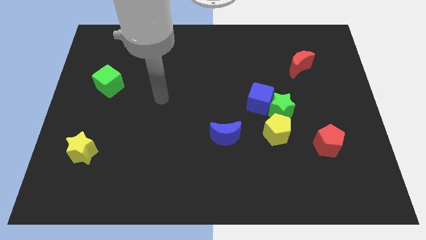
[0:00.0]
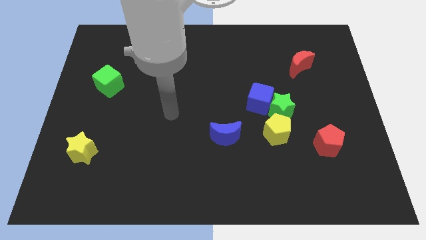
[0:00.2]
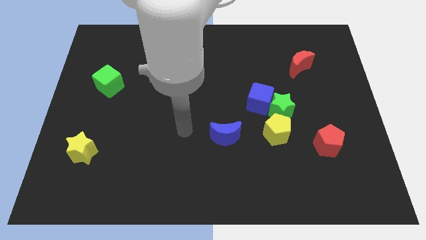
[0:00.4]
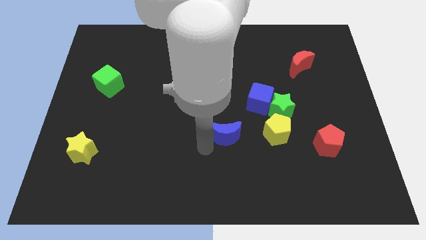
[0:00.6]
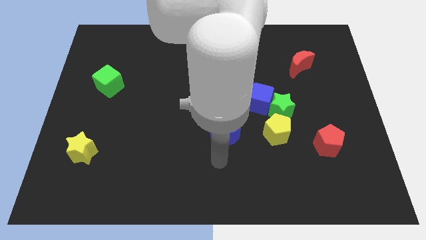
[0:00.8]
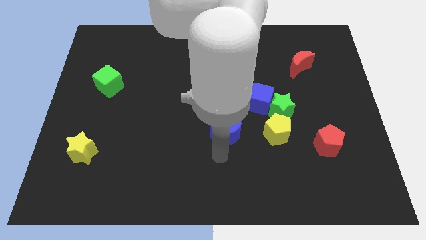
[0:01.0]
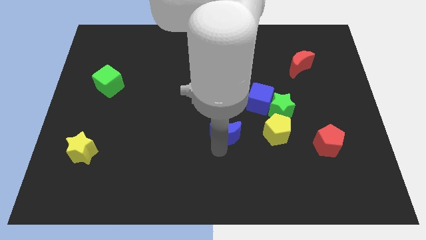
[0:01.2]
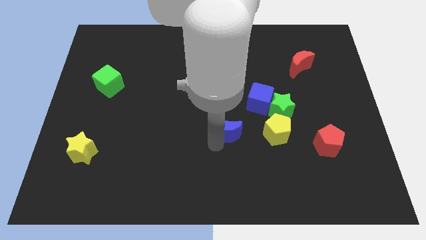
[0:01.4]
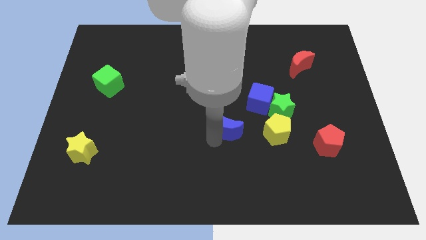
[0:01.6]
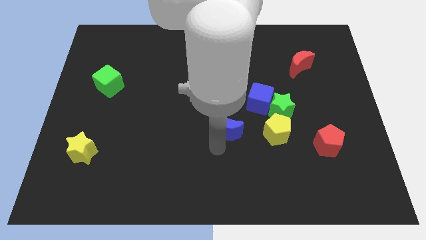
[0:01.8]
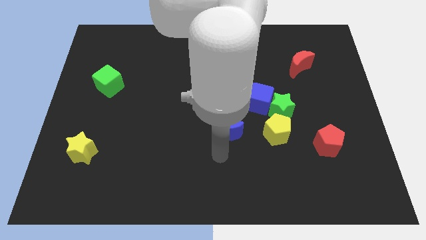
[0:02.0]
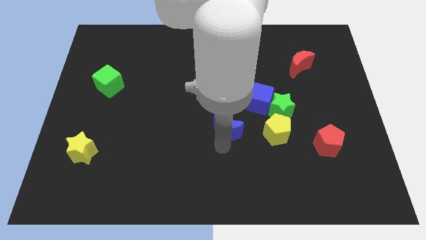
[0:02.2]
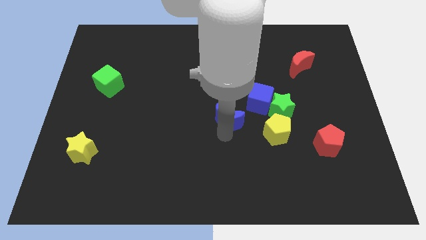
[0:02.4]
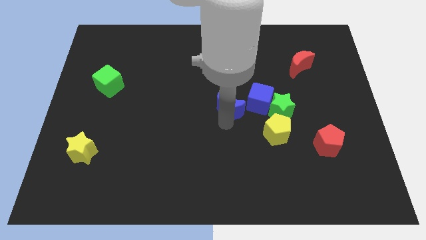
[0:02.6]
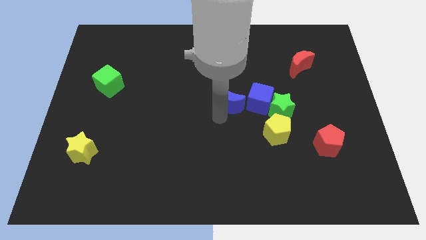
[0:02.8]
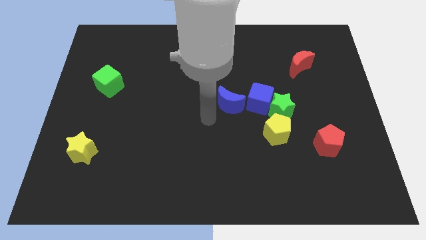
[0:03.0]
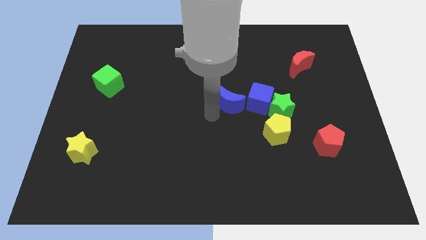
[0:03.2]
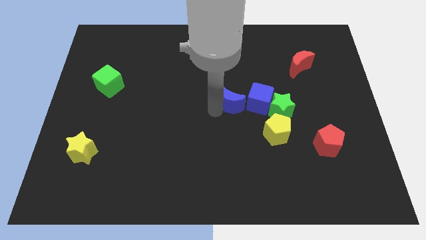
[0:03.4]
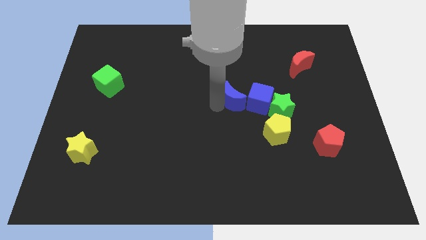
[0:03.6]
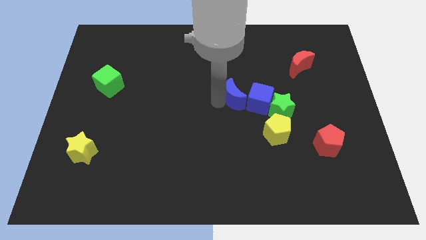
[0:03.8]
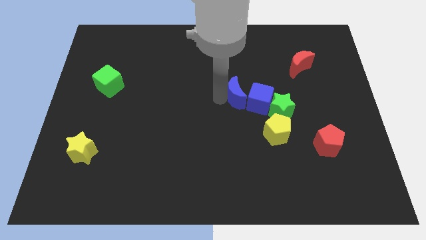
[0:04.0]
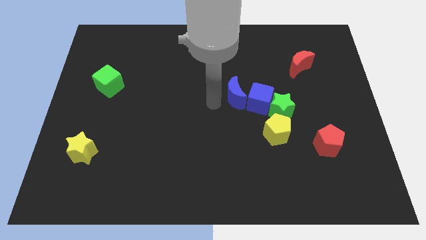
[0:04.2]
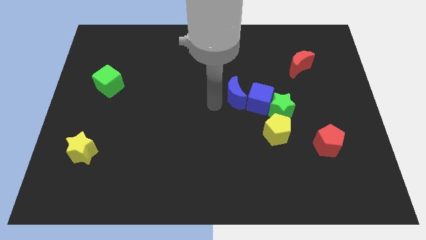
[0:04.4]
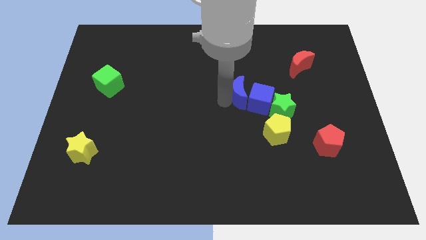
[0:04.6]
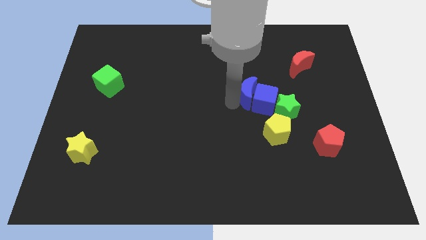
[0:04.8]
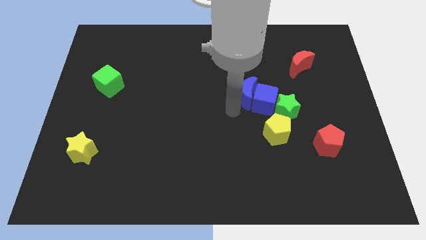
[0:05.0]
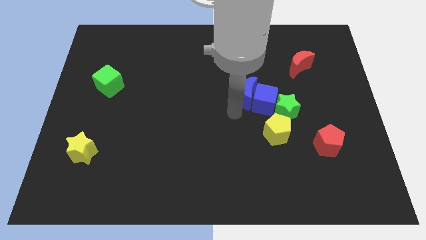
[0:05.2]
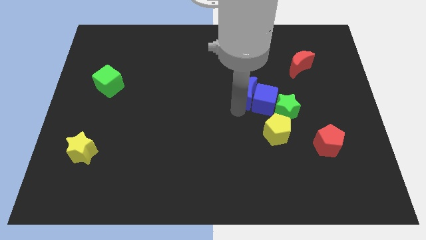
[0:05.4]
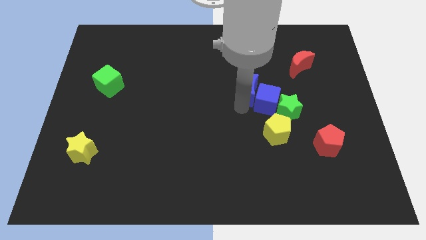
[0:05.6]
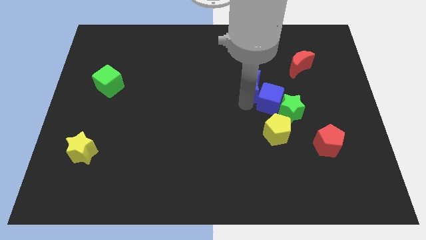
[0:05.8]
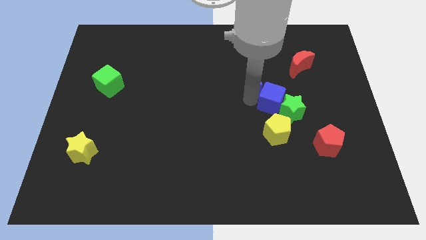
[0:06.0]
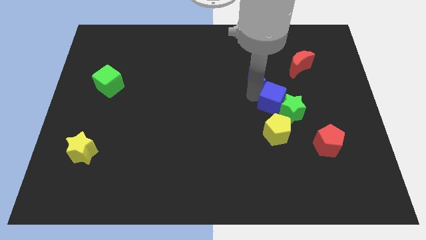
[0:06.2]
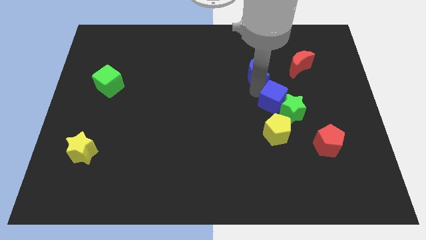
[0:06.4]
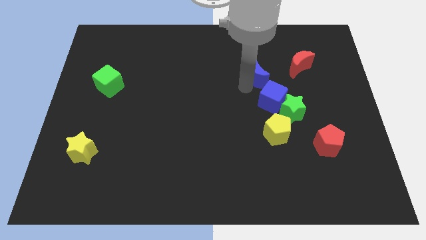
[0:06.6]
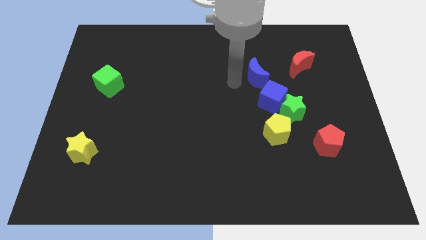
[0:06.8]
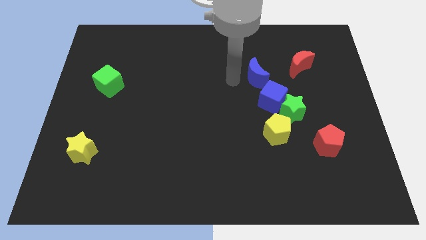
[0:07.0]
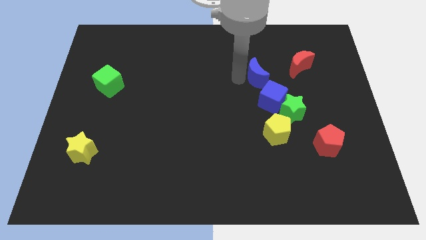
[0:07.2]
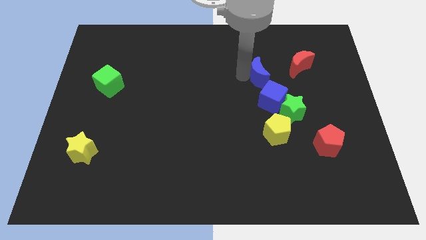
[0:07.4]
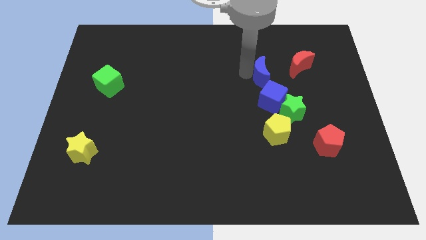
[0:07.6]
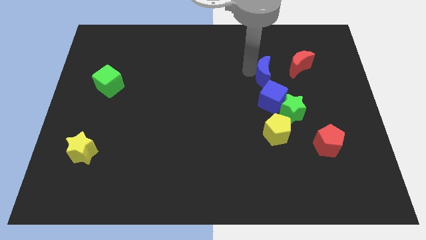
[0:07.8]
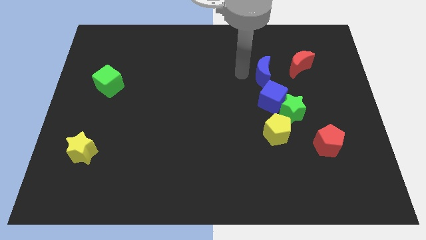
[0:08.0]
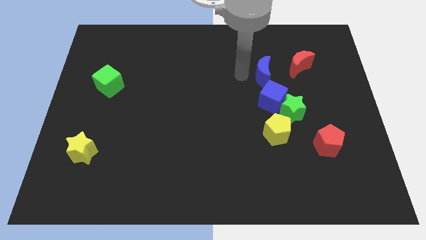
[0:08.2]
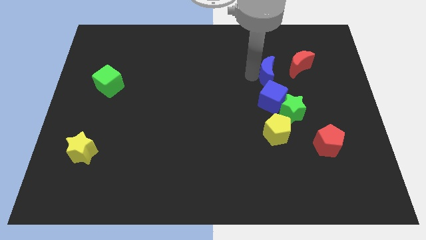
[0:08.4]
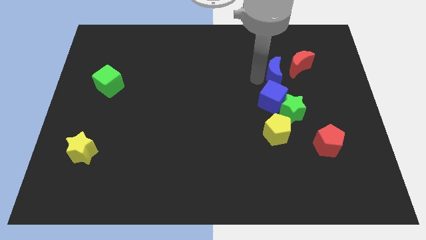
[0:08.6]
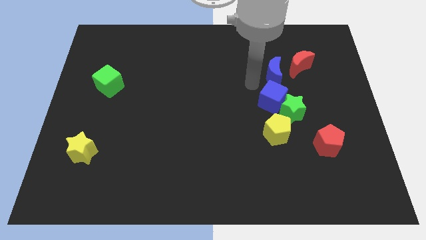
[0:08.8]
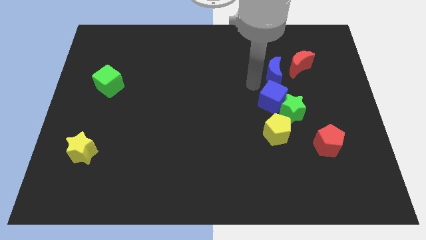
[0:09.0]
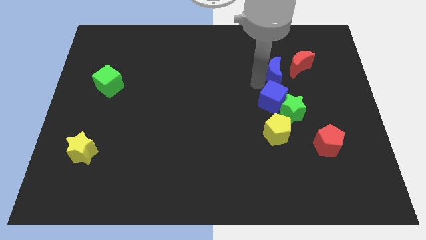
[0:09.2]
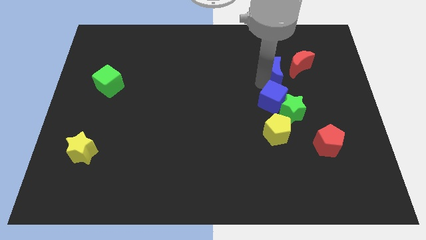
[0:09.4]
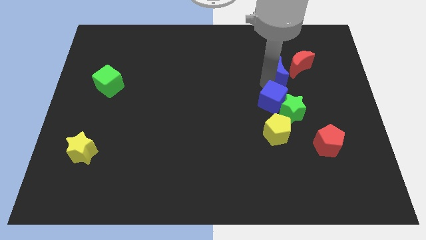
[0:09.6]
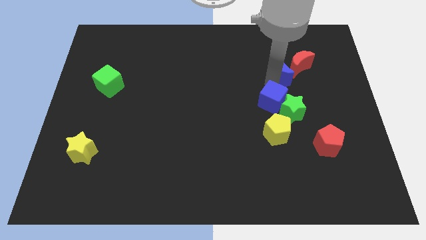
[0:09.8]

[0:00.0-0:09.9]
put the blue moon towards the red moon

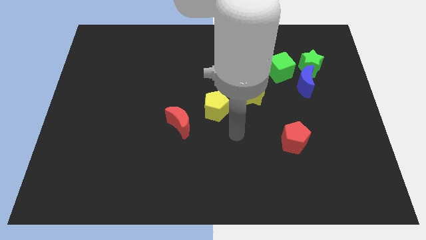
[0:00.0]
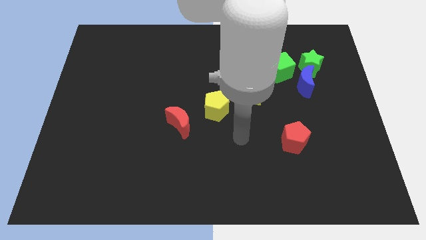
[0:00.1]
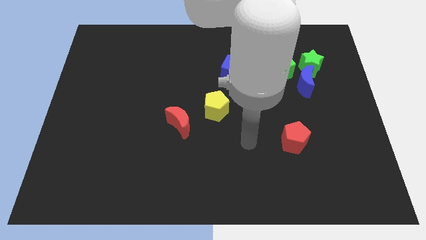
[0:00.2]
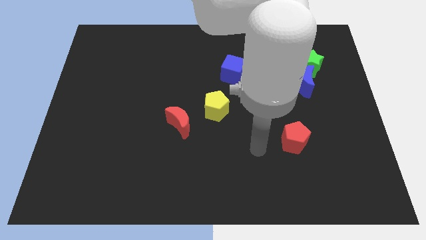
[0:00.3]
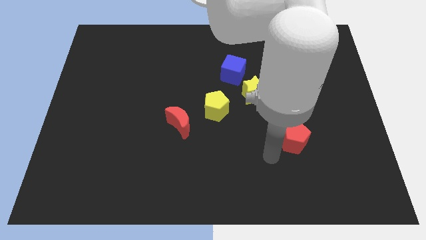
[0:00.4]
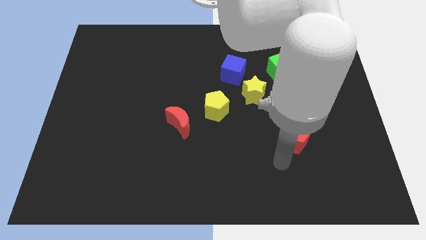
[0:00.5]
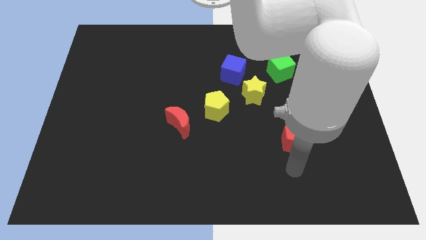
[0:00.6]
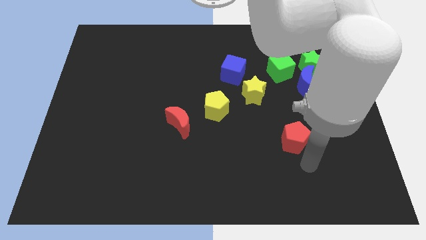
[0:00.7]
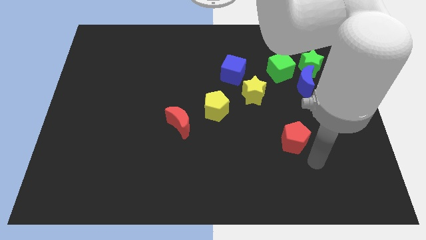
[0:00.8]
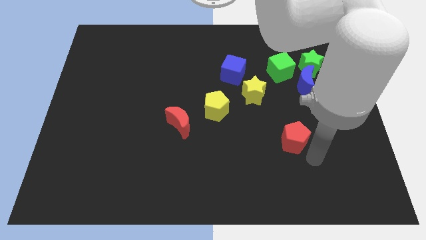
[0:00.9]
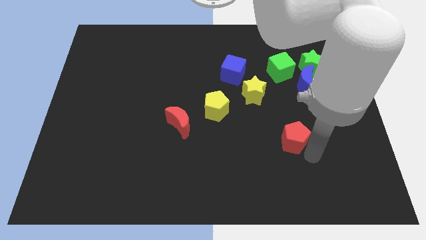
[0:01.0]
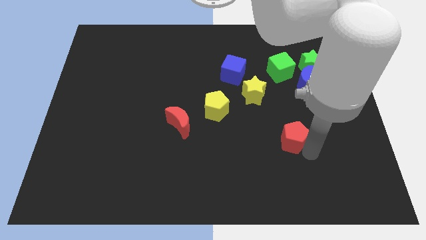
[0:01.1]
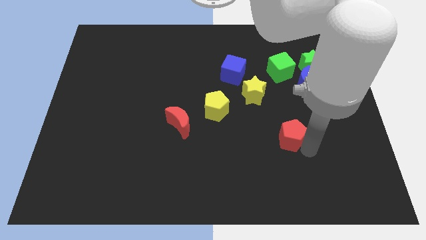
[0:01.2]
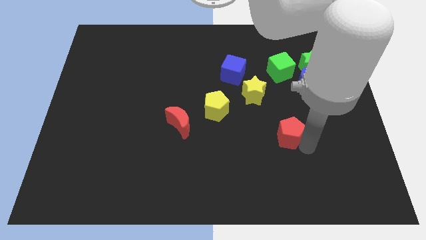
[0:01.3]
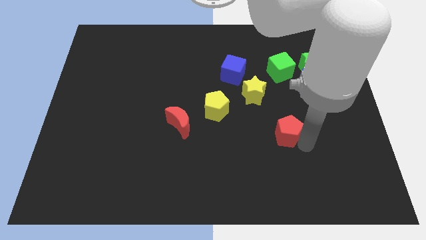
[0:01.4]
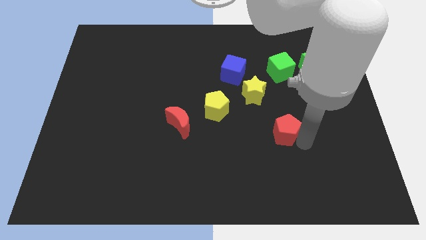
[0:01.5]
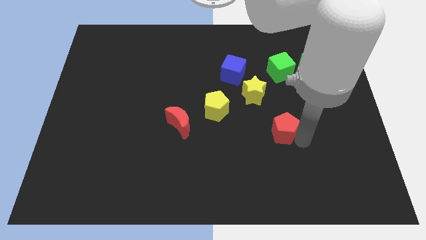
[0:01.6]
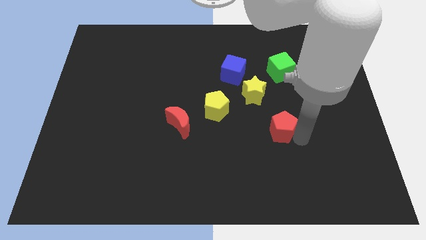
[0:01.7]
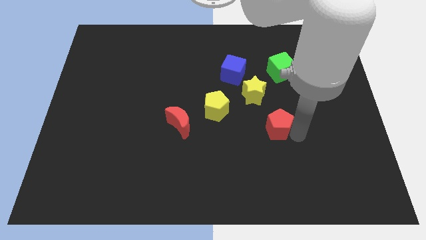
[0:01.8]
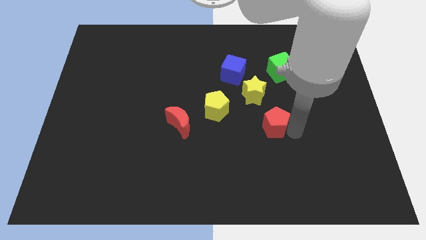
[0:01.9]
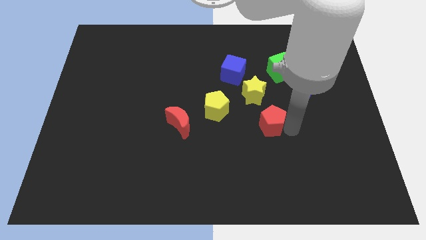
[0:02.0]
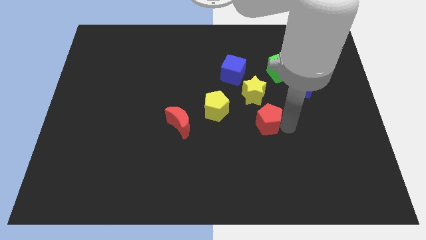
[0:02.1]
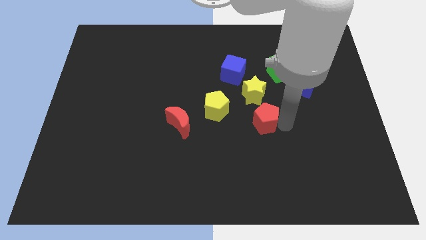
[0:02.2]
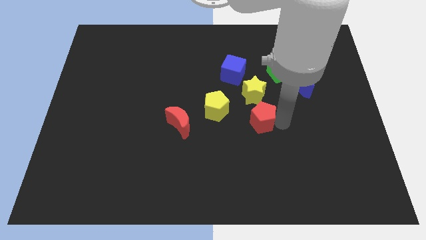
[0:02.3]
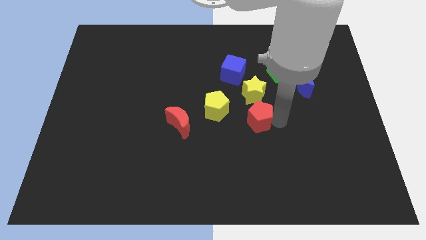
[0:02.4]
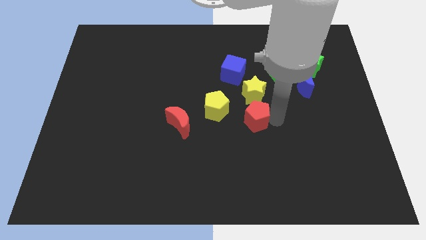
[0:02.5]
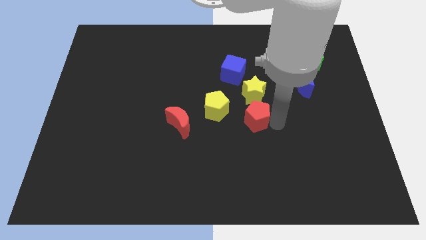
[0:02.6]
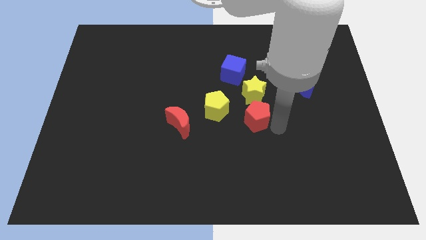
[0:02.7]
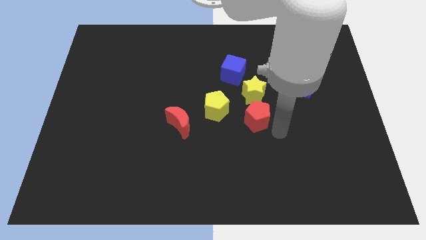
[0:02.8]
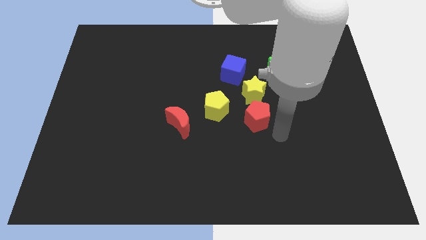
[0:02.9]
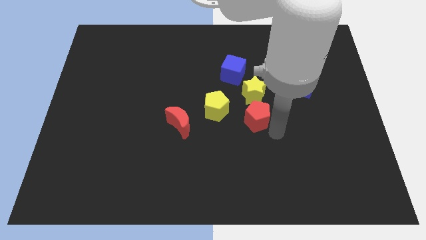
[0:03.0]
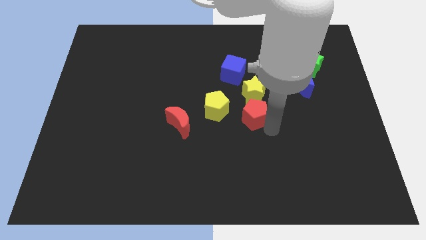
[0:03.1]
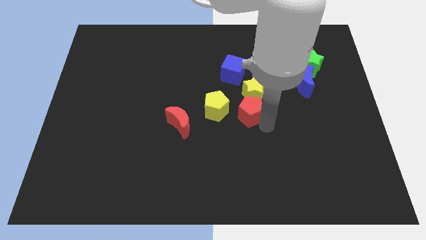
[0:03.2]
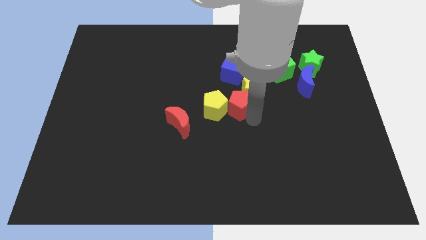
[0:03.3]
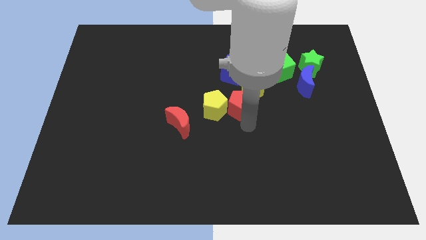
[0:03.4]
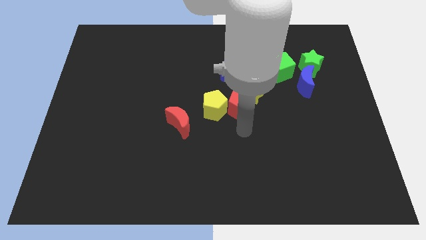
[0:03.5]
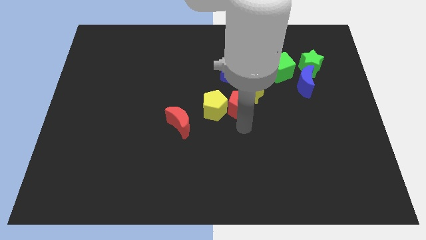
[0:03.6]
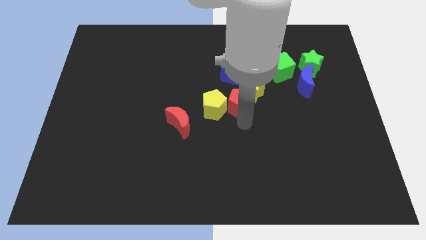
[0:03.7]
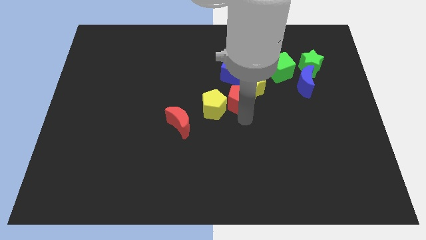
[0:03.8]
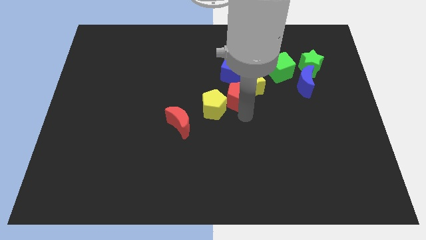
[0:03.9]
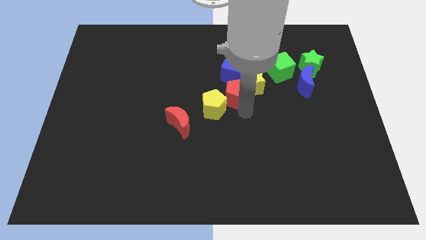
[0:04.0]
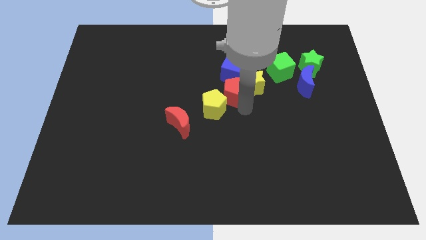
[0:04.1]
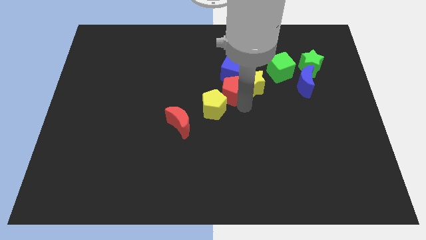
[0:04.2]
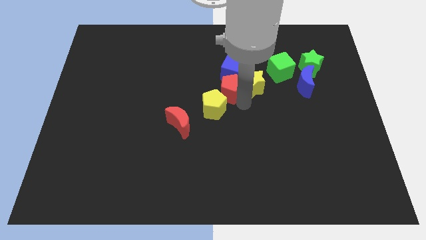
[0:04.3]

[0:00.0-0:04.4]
move the red pentagon next to the blue cube
